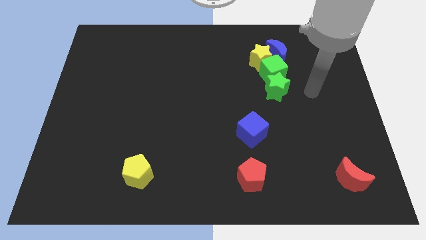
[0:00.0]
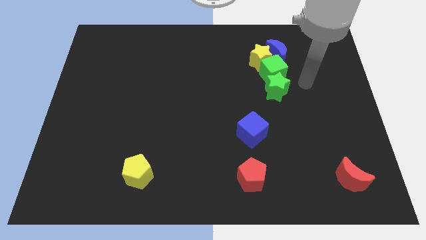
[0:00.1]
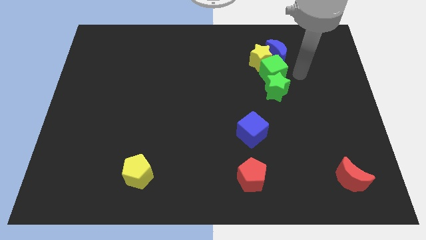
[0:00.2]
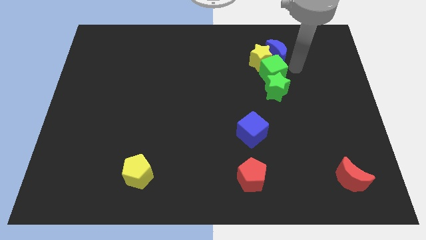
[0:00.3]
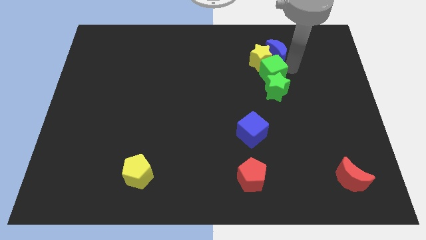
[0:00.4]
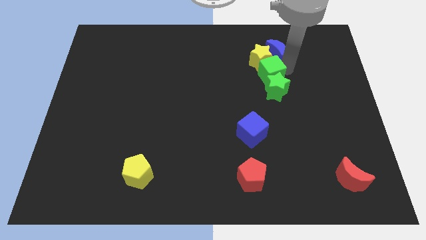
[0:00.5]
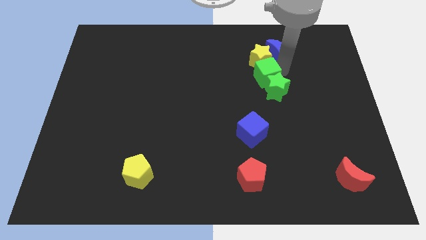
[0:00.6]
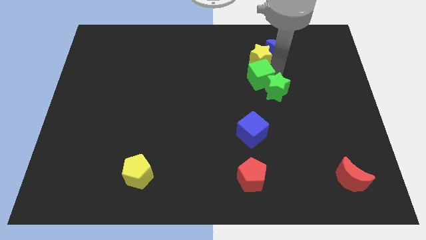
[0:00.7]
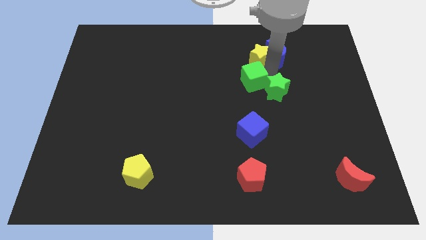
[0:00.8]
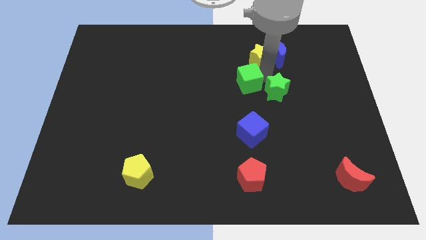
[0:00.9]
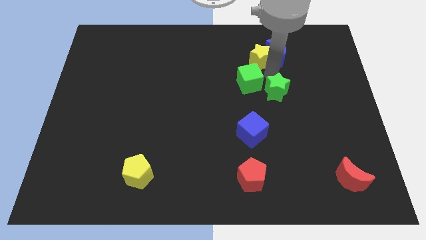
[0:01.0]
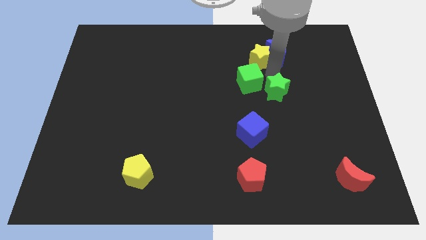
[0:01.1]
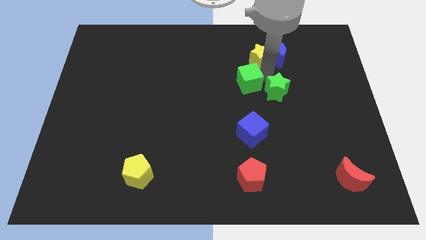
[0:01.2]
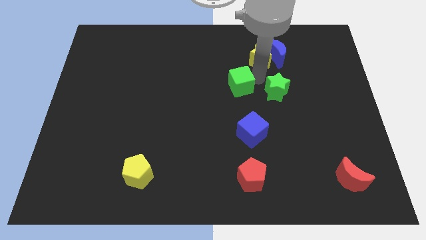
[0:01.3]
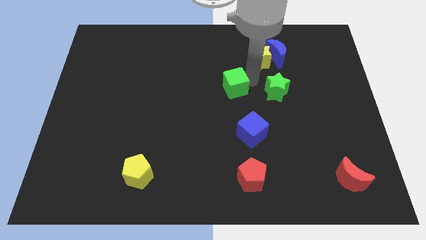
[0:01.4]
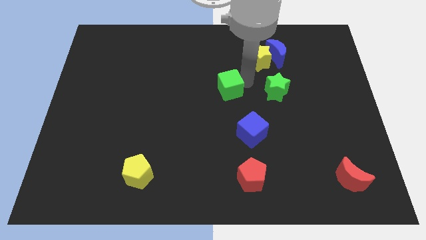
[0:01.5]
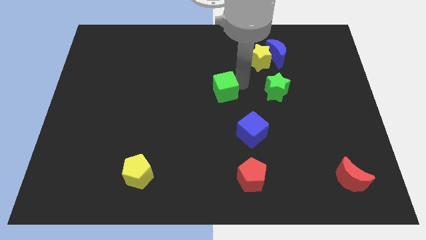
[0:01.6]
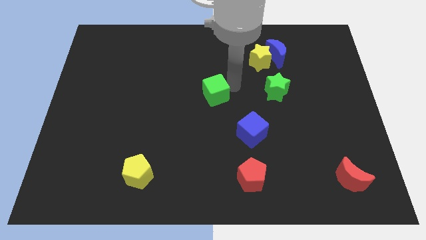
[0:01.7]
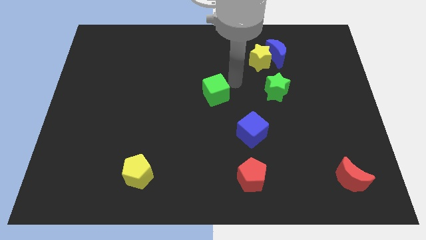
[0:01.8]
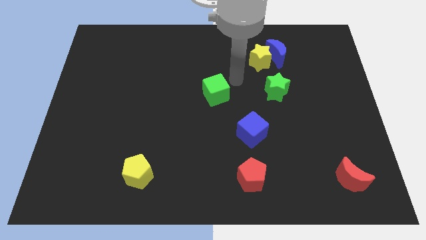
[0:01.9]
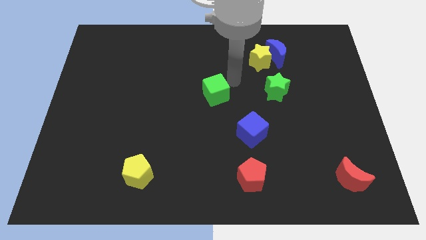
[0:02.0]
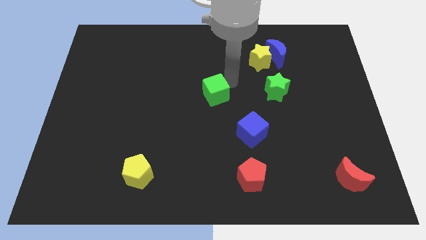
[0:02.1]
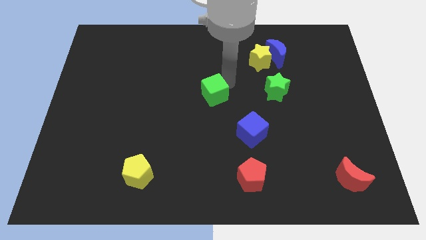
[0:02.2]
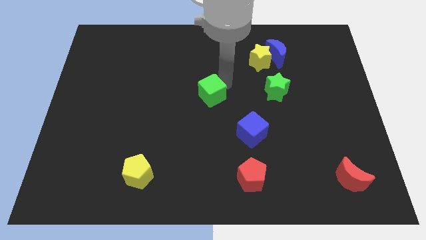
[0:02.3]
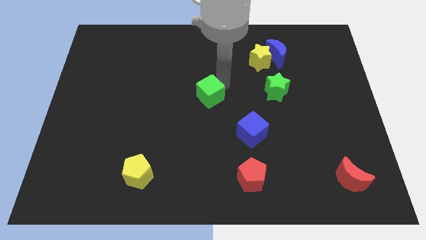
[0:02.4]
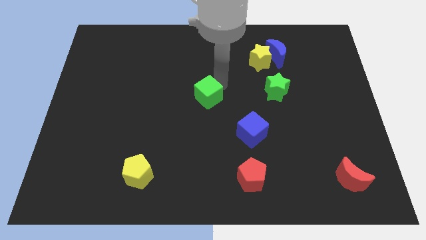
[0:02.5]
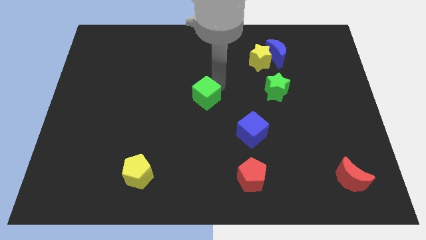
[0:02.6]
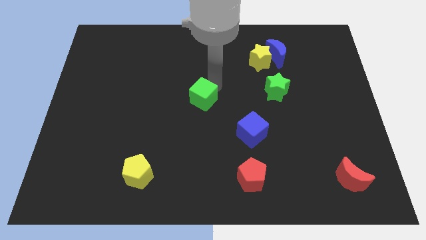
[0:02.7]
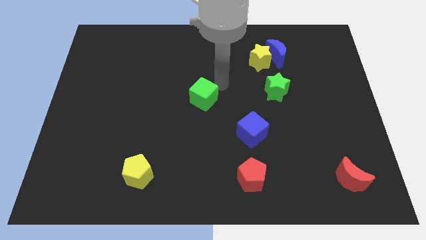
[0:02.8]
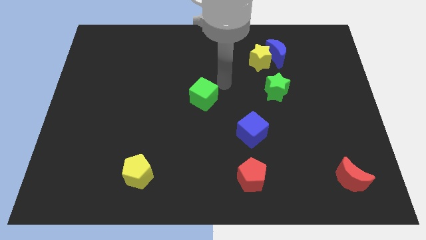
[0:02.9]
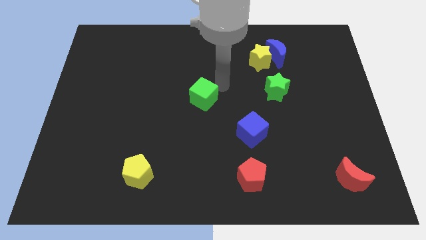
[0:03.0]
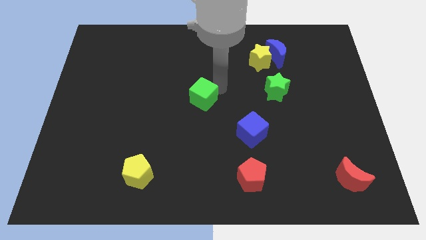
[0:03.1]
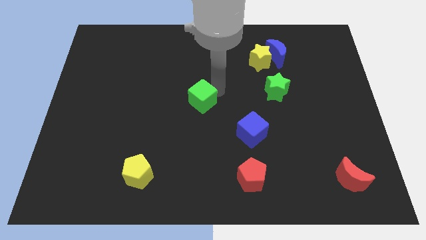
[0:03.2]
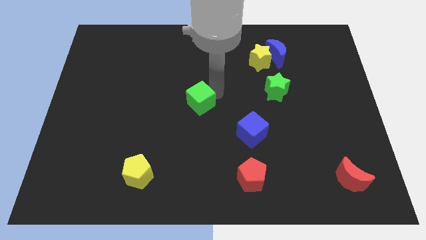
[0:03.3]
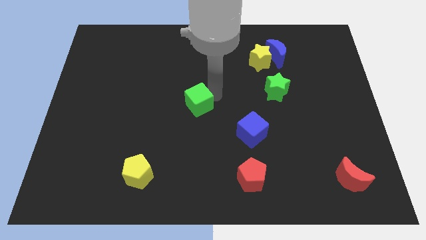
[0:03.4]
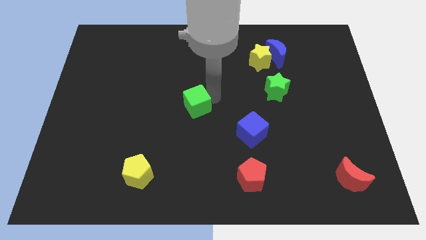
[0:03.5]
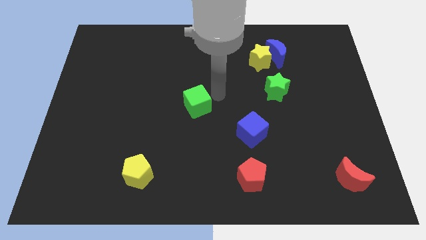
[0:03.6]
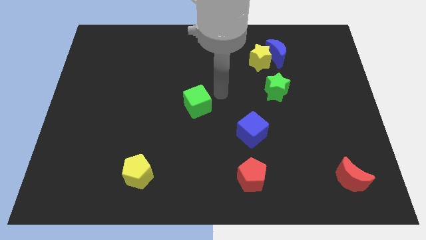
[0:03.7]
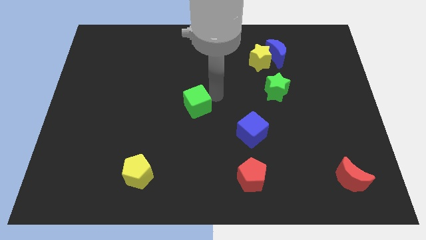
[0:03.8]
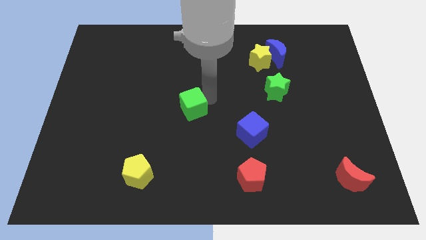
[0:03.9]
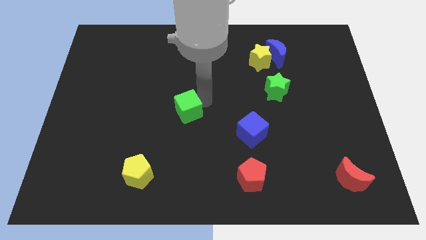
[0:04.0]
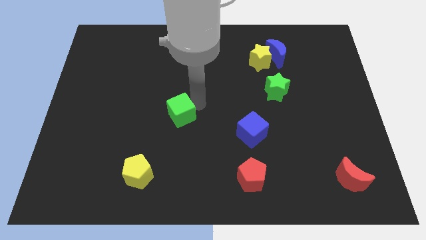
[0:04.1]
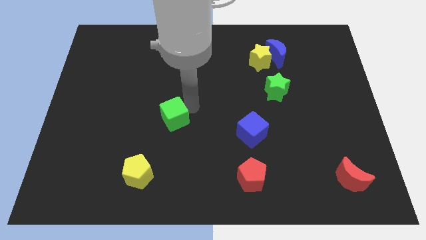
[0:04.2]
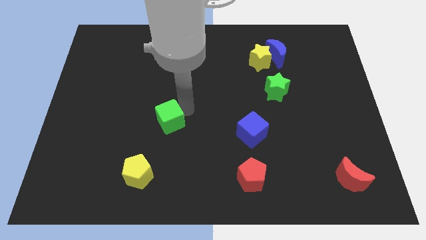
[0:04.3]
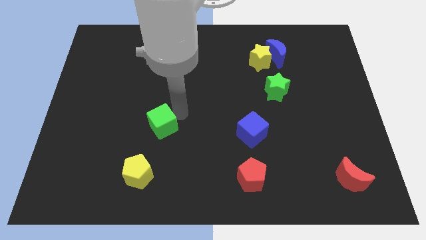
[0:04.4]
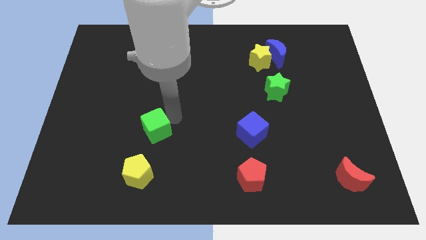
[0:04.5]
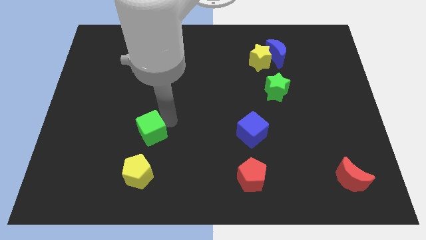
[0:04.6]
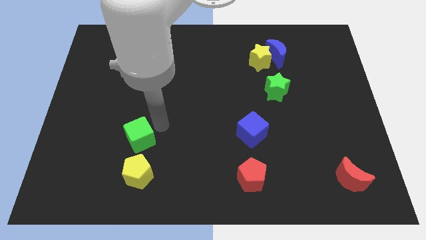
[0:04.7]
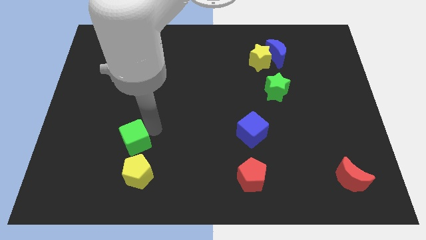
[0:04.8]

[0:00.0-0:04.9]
move the green cube to the top left of the yellow pentagon

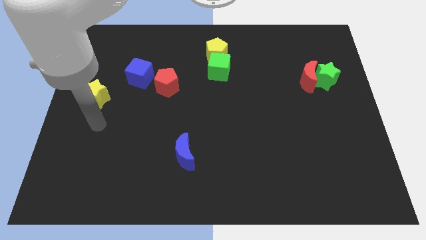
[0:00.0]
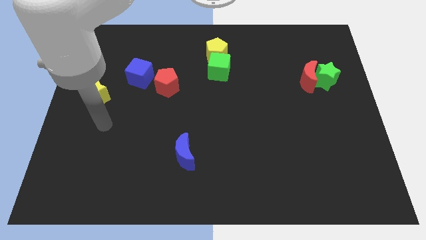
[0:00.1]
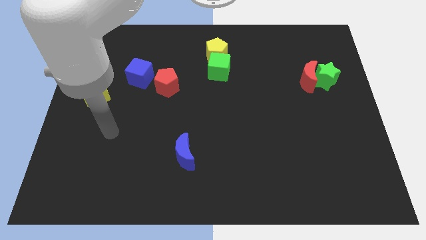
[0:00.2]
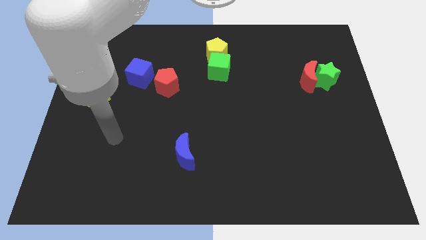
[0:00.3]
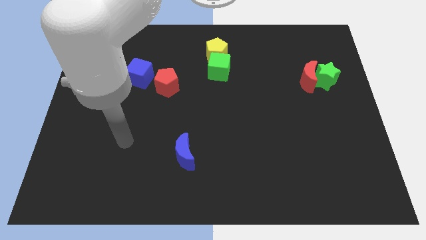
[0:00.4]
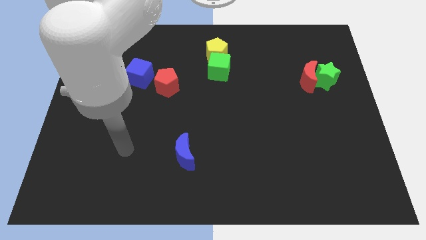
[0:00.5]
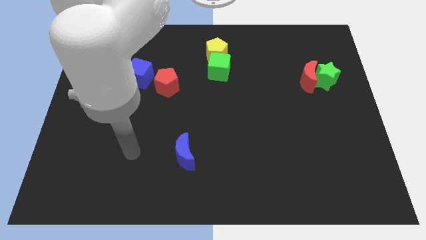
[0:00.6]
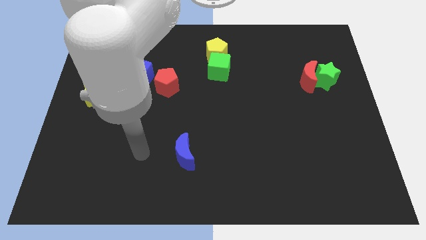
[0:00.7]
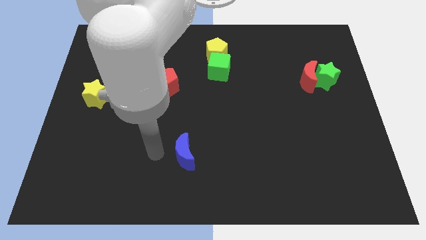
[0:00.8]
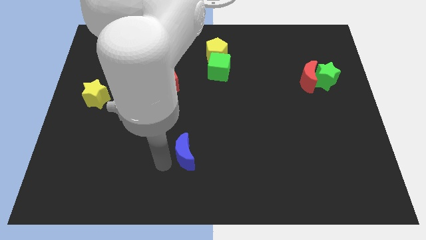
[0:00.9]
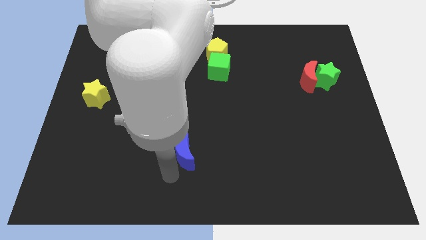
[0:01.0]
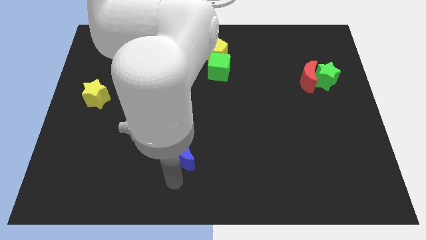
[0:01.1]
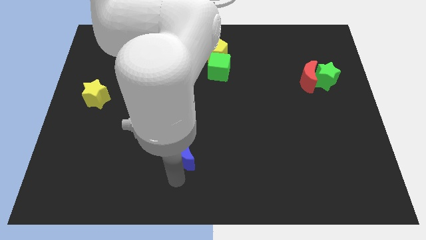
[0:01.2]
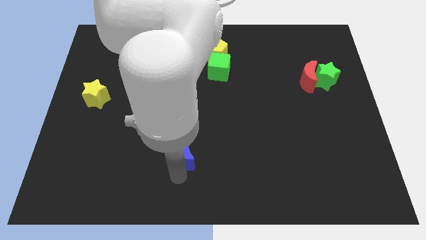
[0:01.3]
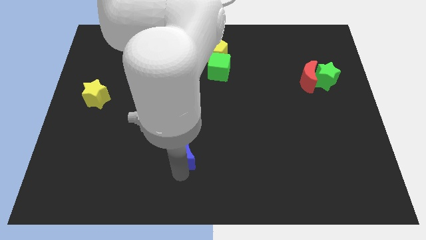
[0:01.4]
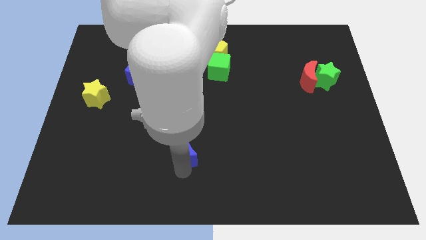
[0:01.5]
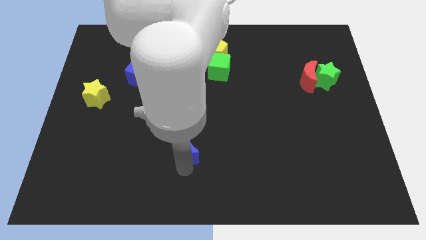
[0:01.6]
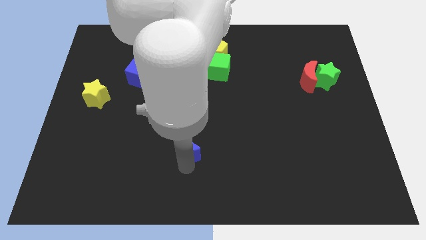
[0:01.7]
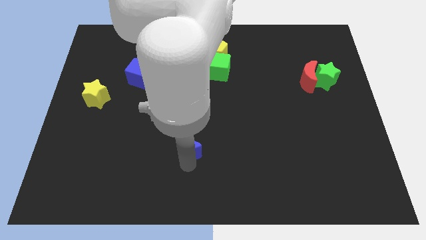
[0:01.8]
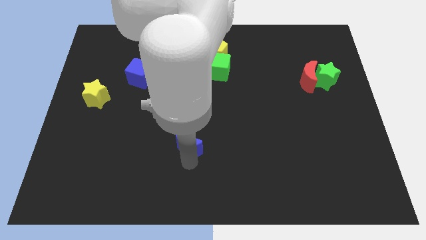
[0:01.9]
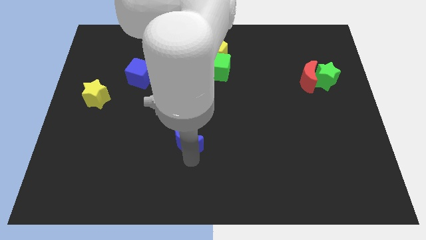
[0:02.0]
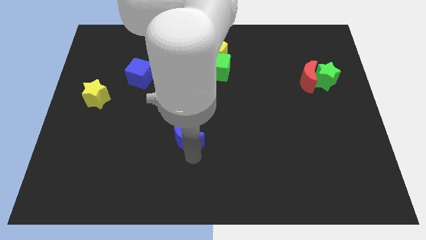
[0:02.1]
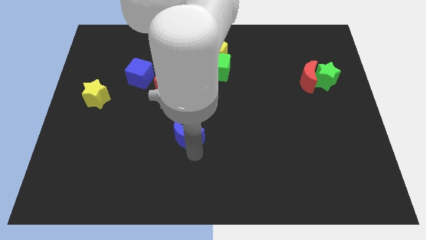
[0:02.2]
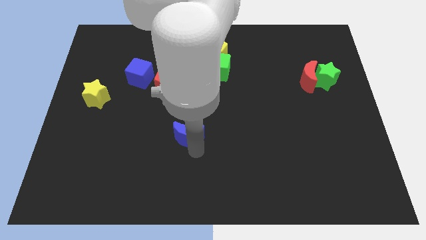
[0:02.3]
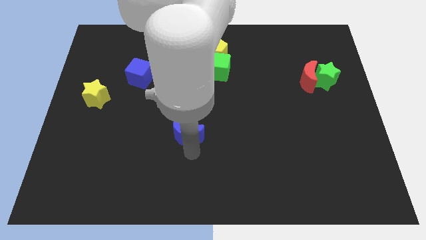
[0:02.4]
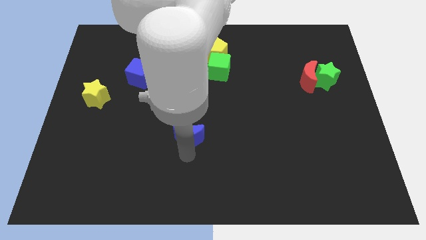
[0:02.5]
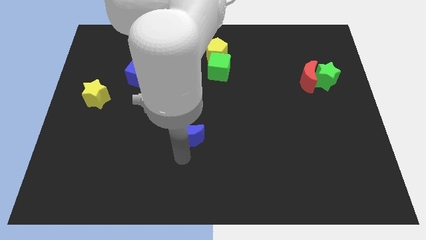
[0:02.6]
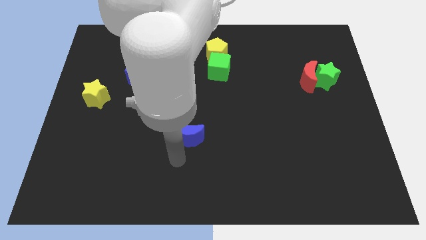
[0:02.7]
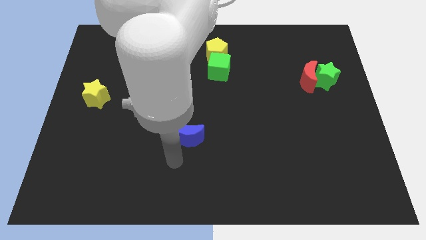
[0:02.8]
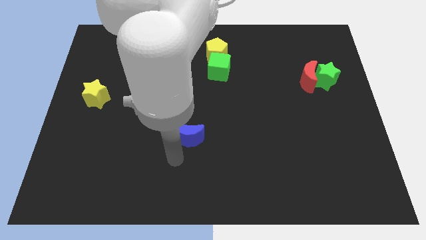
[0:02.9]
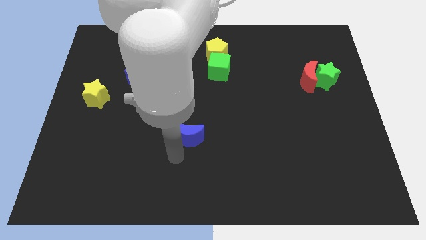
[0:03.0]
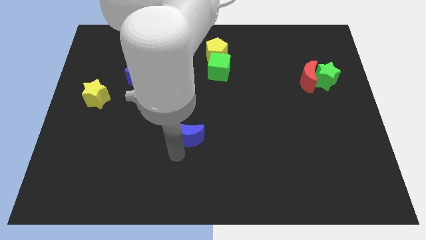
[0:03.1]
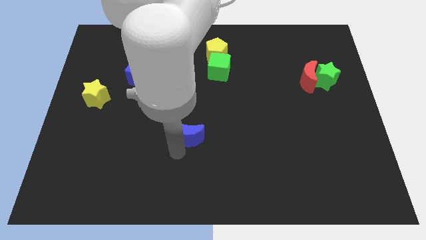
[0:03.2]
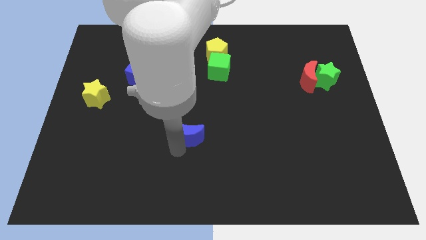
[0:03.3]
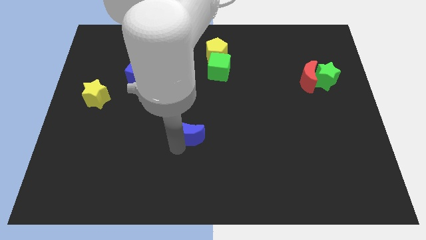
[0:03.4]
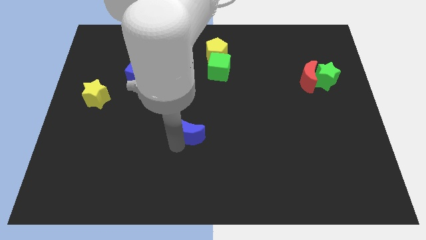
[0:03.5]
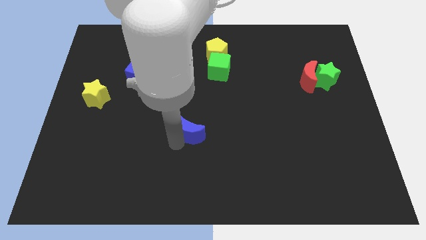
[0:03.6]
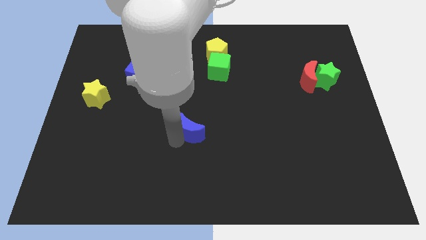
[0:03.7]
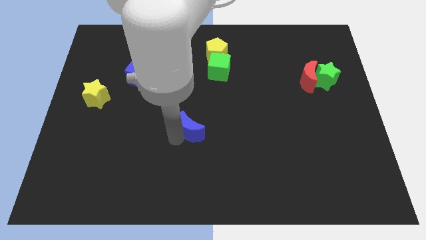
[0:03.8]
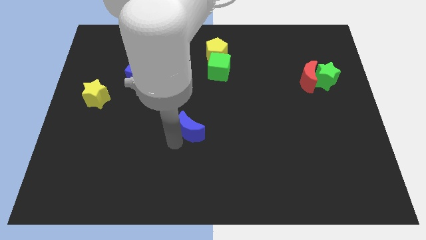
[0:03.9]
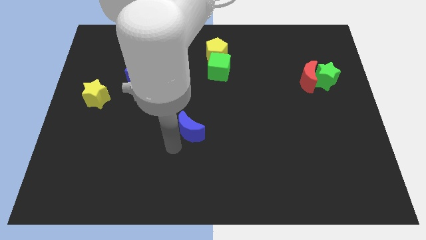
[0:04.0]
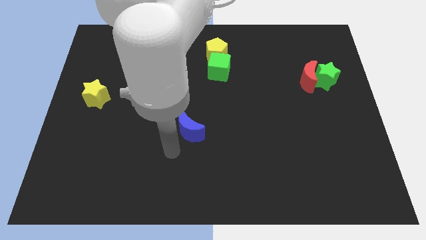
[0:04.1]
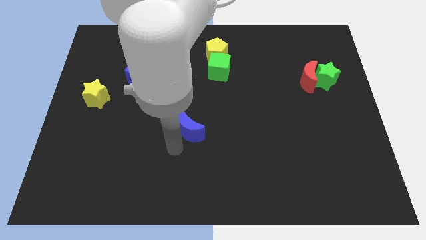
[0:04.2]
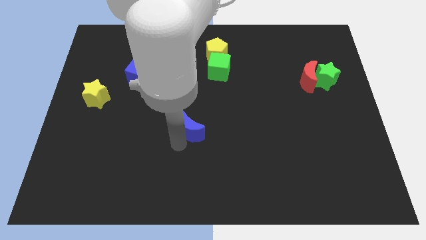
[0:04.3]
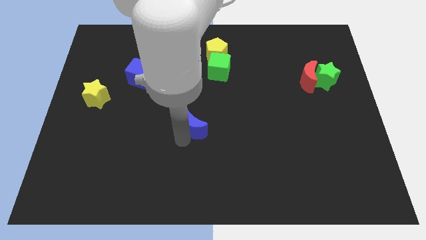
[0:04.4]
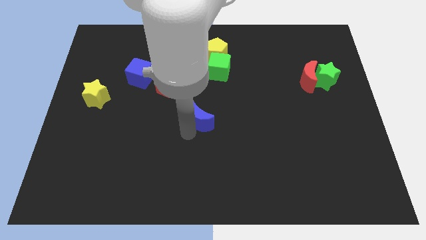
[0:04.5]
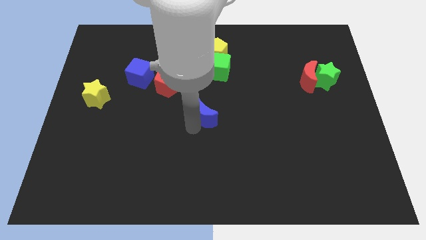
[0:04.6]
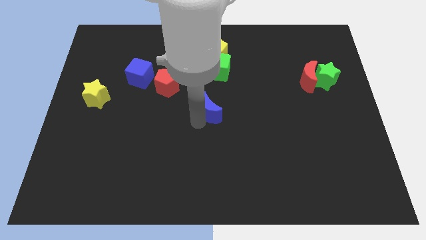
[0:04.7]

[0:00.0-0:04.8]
put the blue moon to the bottom side of the green cube
